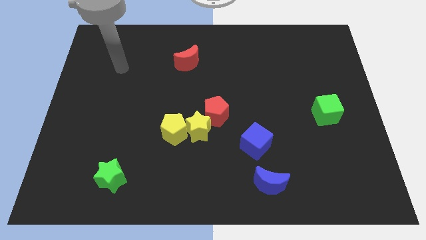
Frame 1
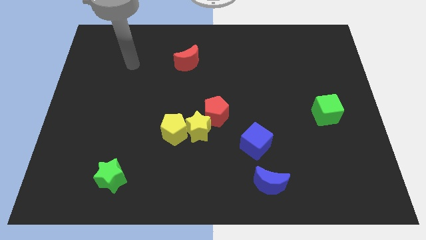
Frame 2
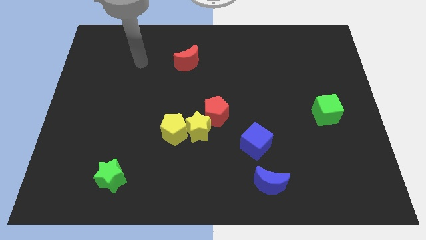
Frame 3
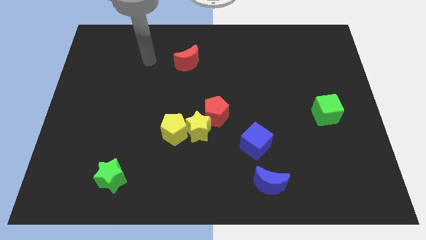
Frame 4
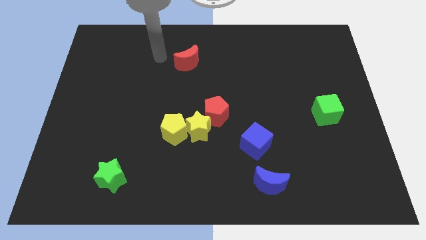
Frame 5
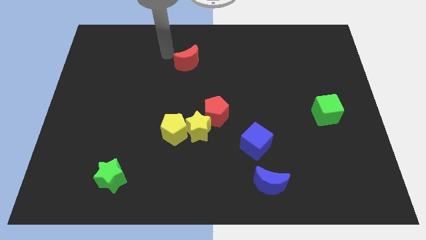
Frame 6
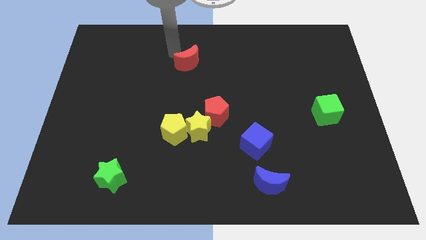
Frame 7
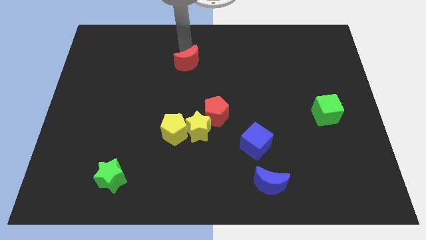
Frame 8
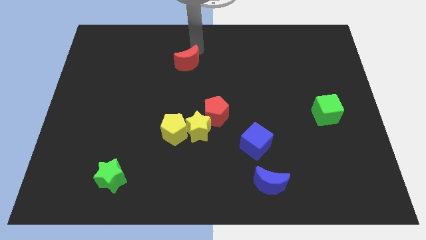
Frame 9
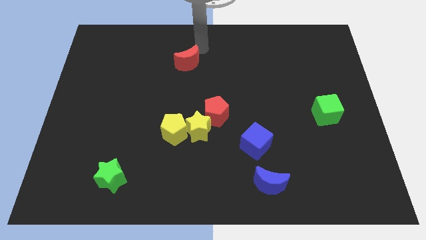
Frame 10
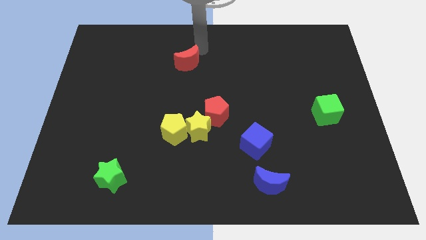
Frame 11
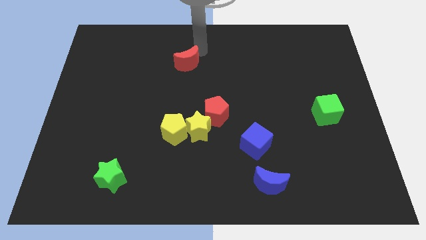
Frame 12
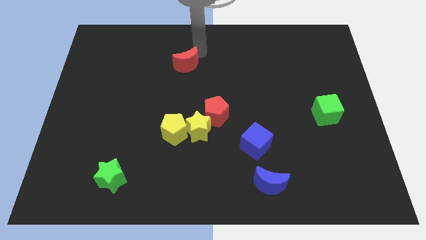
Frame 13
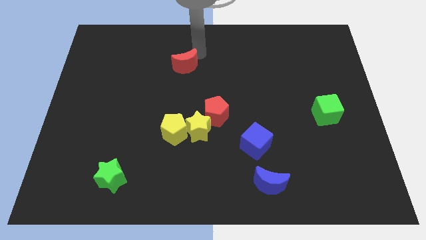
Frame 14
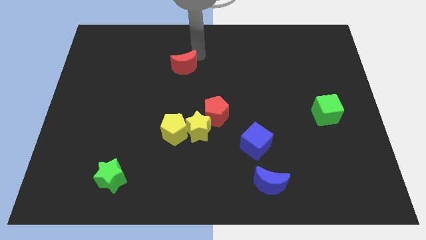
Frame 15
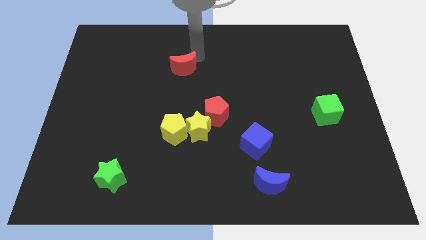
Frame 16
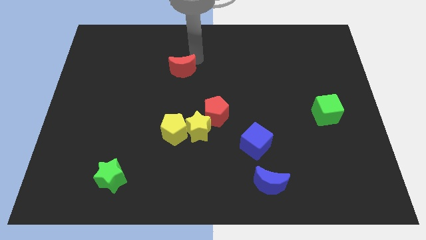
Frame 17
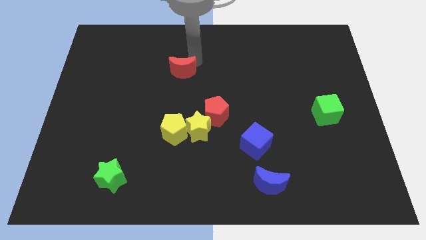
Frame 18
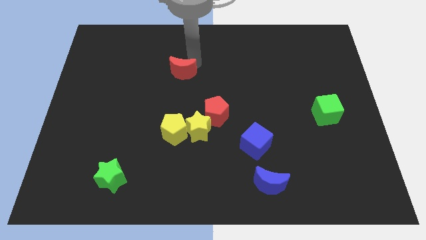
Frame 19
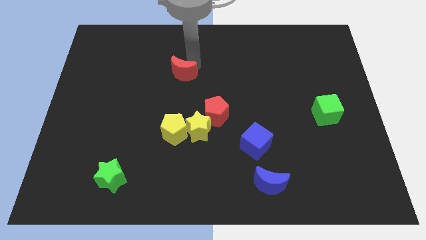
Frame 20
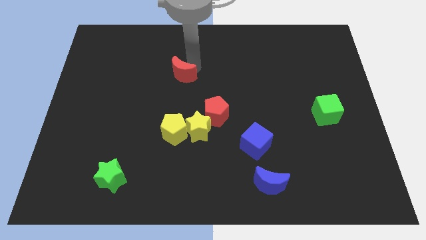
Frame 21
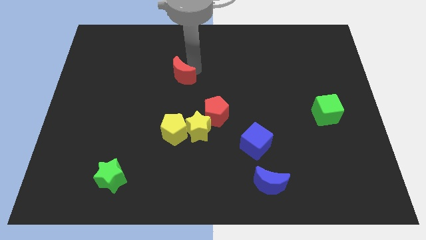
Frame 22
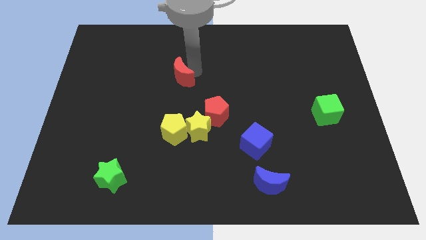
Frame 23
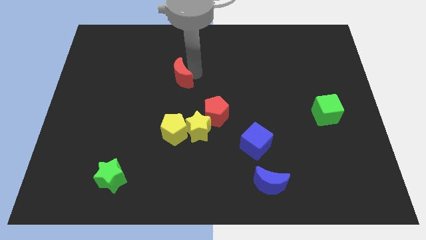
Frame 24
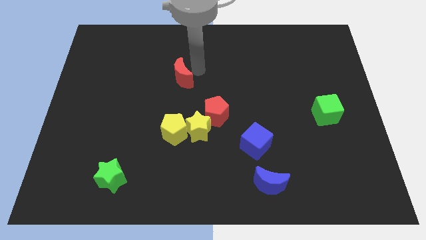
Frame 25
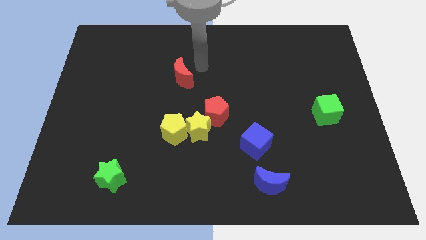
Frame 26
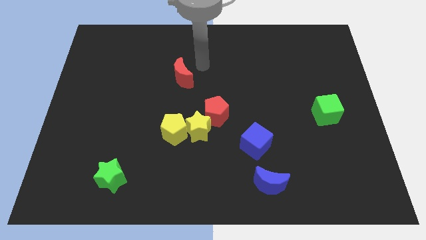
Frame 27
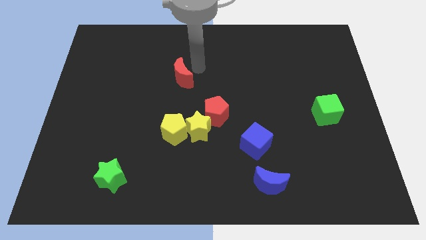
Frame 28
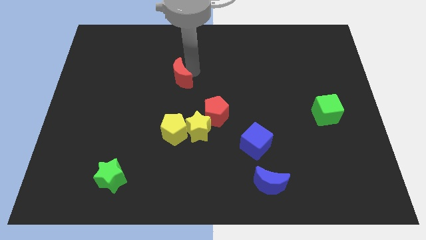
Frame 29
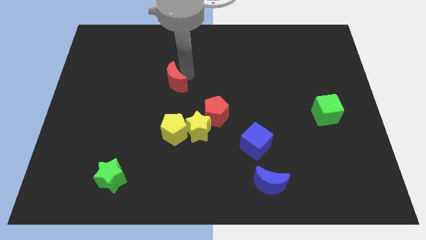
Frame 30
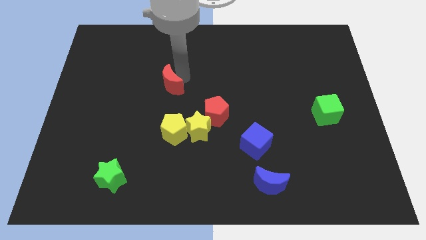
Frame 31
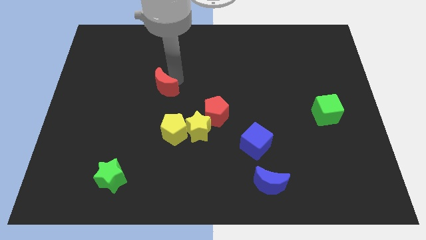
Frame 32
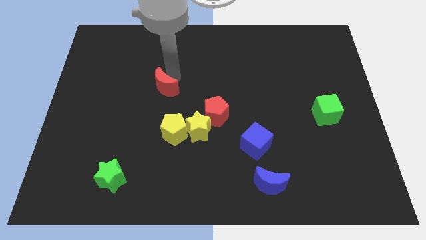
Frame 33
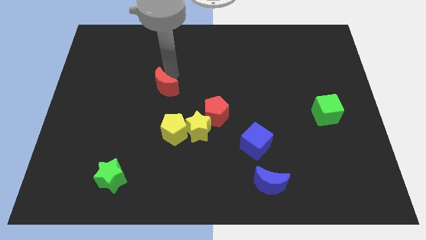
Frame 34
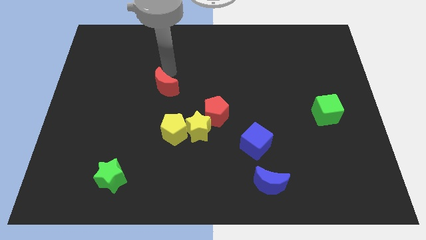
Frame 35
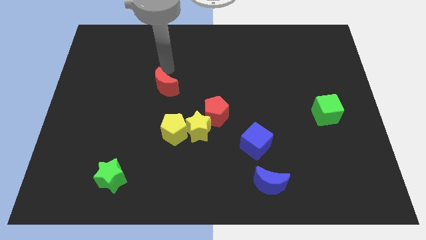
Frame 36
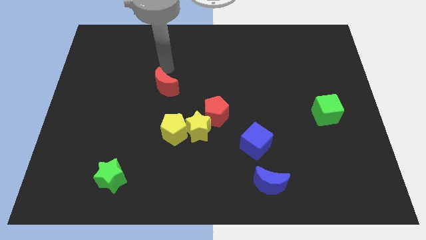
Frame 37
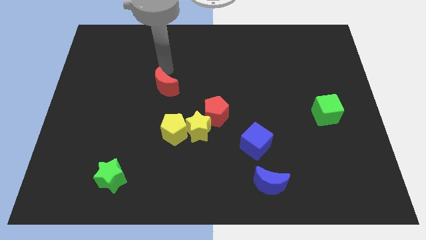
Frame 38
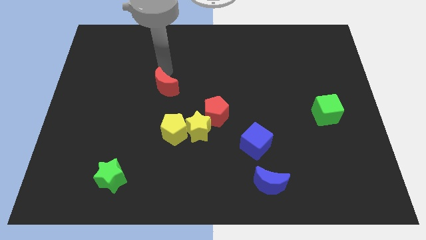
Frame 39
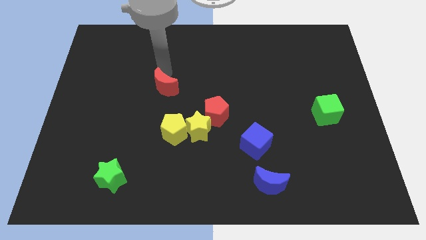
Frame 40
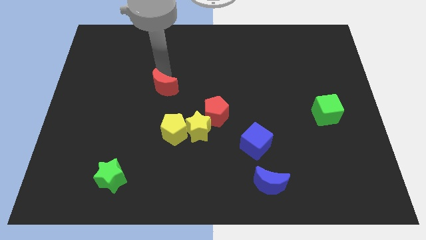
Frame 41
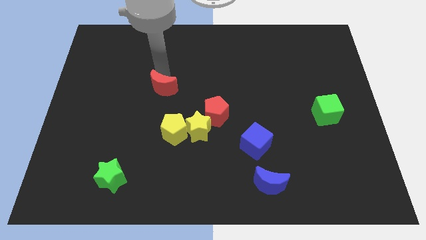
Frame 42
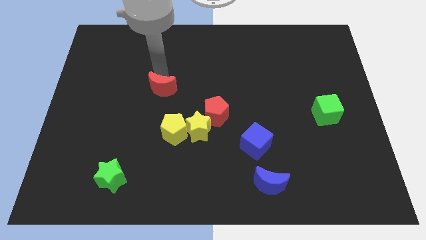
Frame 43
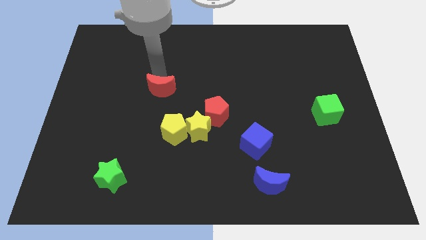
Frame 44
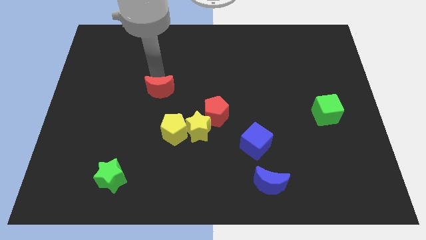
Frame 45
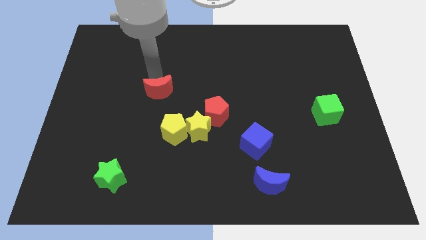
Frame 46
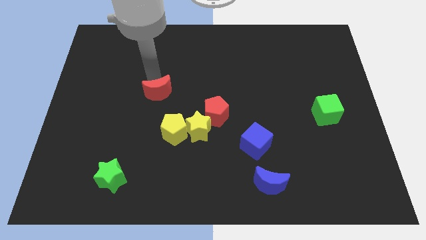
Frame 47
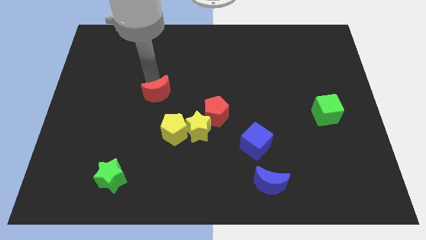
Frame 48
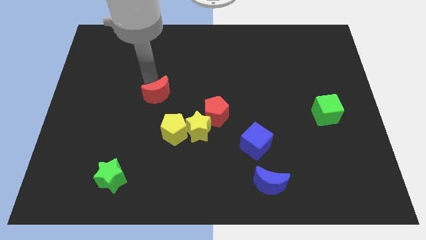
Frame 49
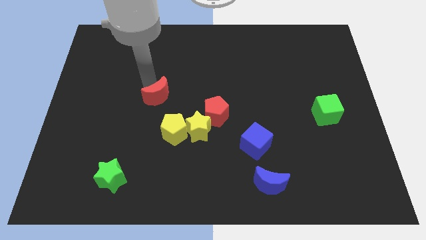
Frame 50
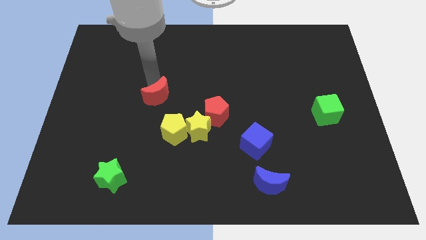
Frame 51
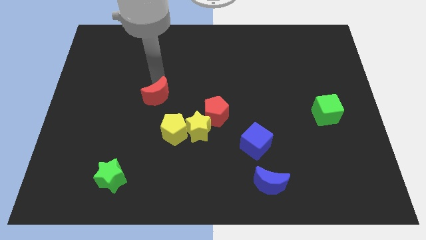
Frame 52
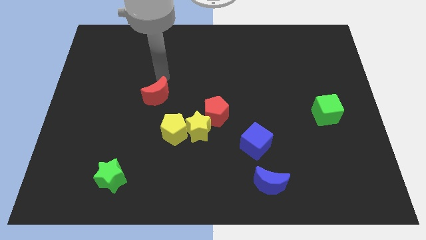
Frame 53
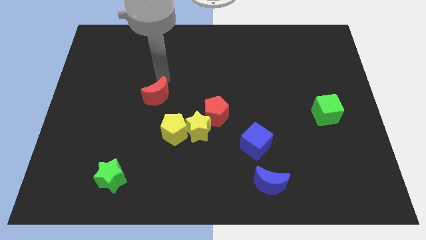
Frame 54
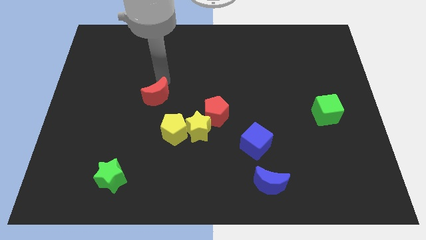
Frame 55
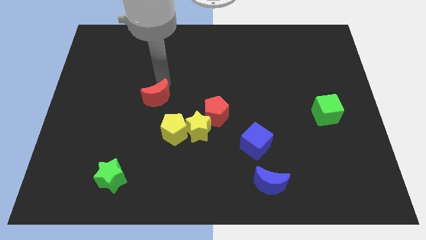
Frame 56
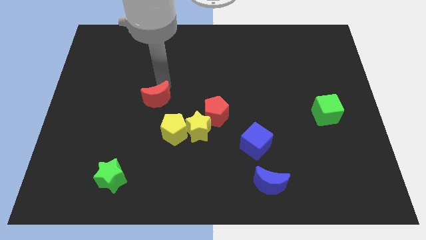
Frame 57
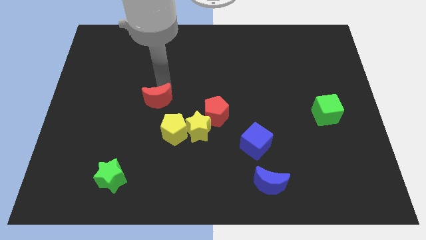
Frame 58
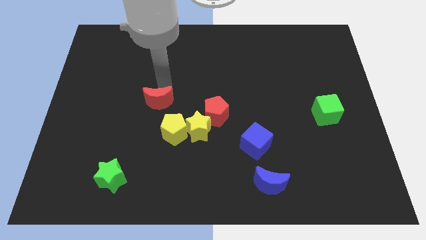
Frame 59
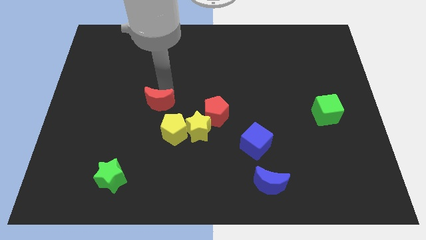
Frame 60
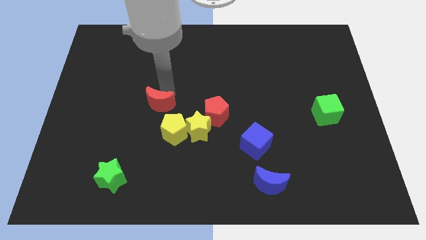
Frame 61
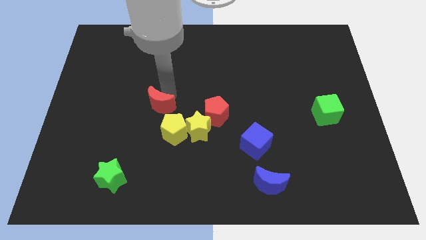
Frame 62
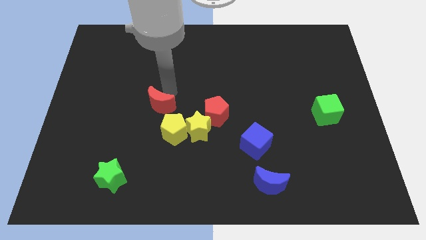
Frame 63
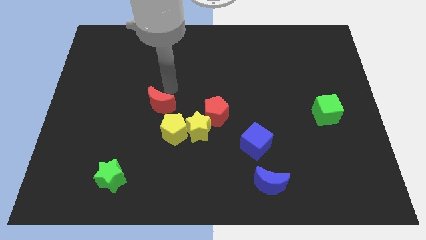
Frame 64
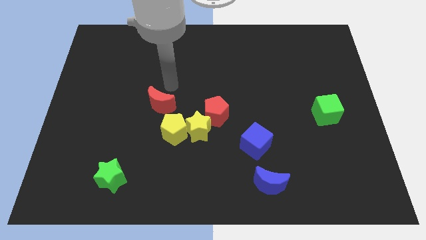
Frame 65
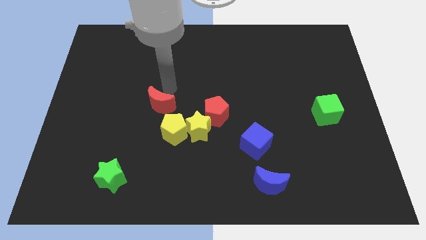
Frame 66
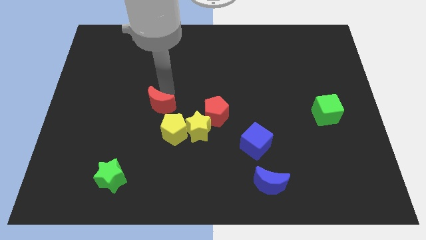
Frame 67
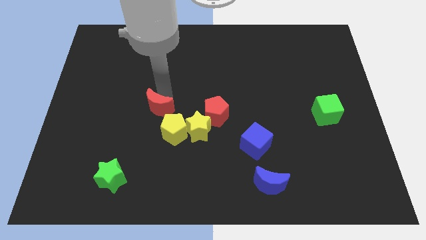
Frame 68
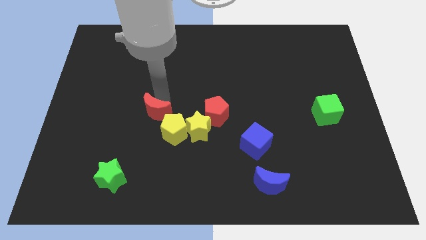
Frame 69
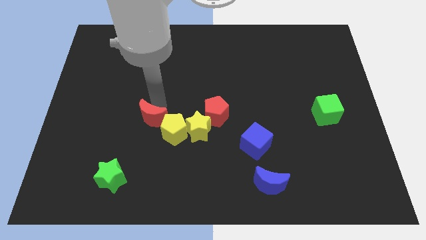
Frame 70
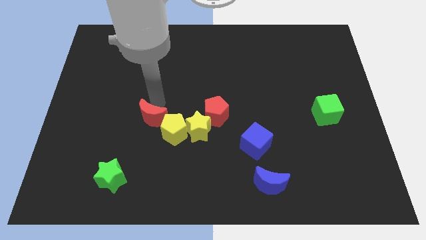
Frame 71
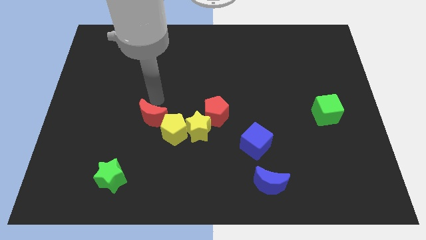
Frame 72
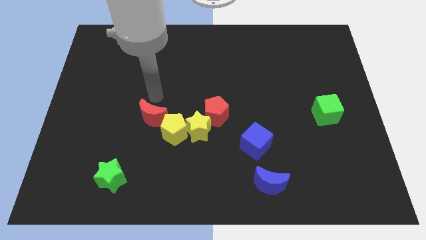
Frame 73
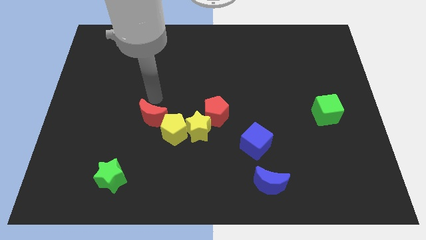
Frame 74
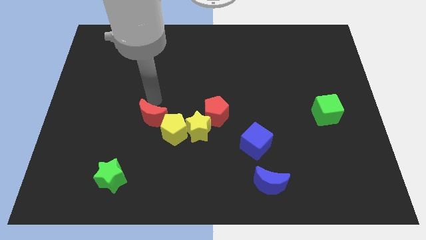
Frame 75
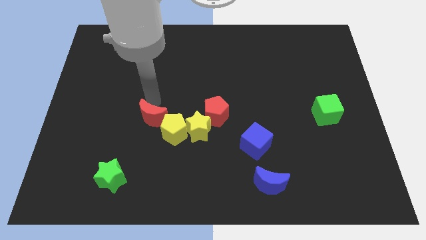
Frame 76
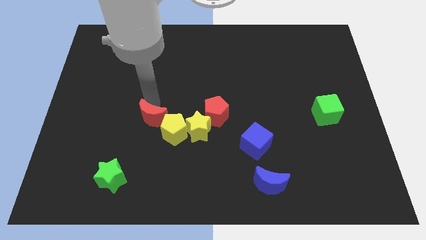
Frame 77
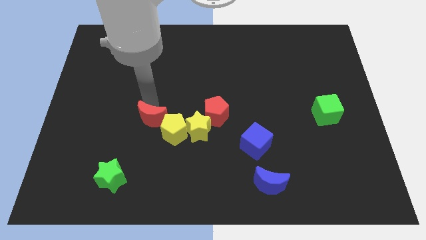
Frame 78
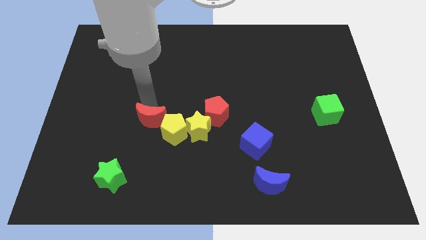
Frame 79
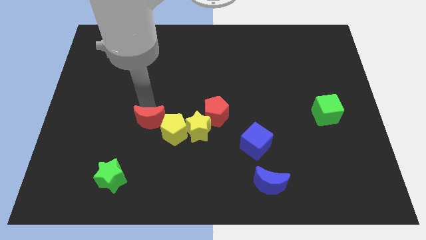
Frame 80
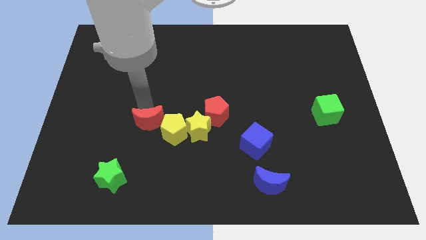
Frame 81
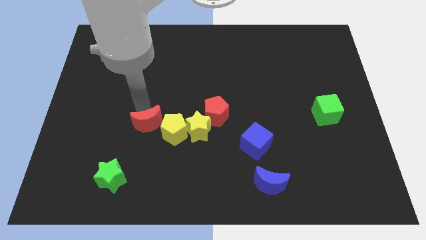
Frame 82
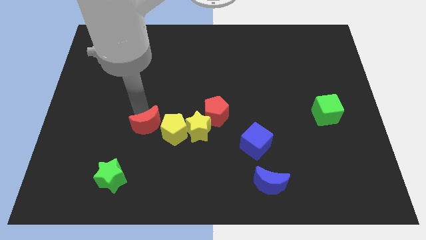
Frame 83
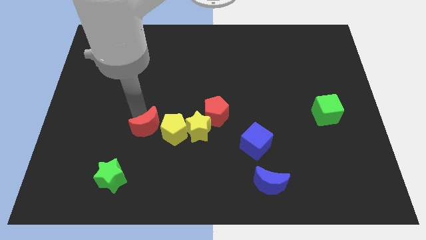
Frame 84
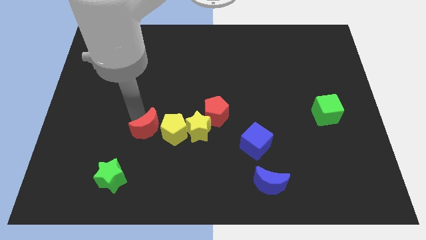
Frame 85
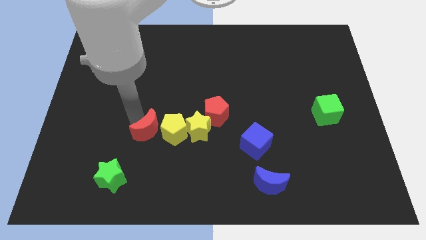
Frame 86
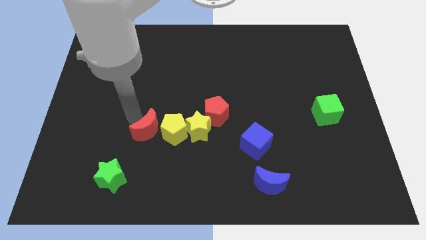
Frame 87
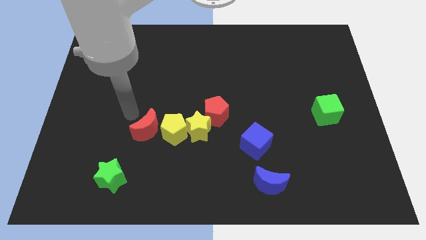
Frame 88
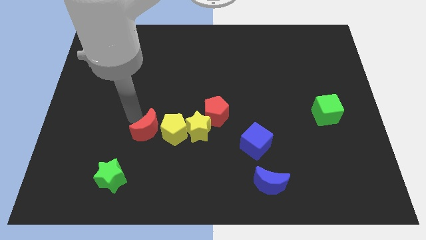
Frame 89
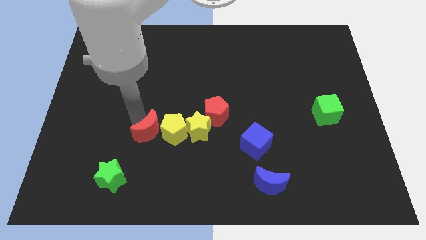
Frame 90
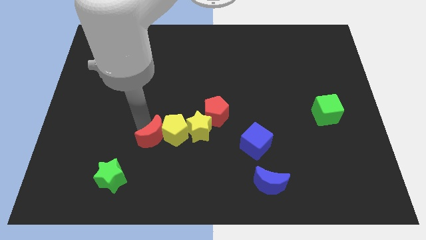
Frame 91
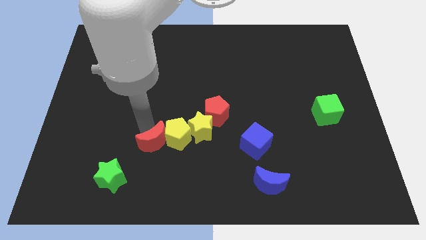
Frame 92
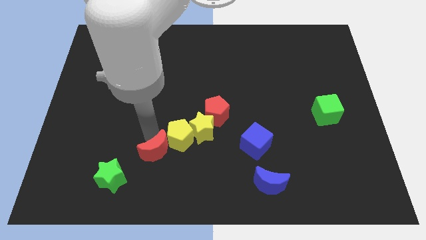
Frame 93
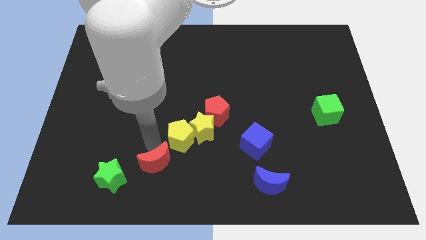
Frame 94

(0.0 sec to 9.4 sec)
put the red moon to the bottom of the yellow pentagon
